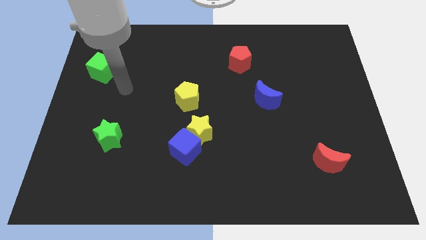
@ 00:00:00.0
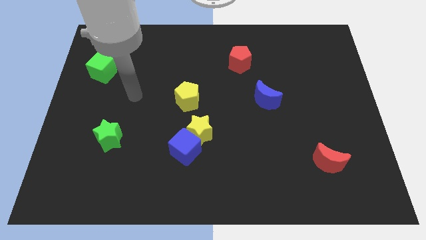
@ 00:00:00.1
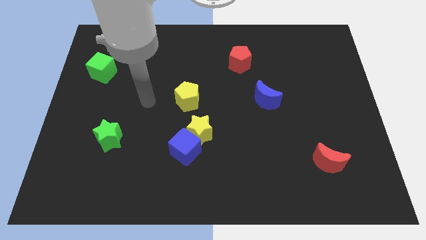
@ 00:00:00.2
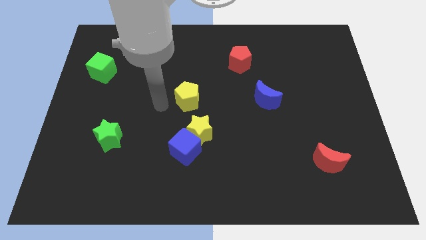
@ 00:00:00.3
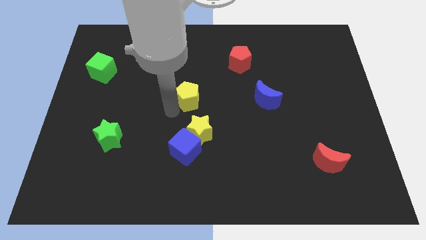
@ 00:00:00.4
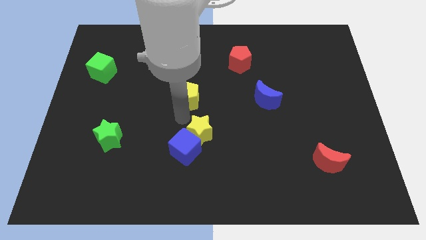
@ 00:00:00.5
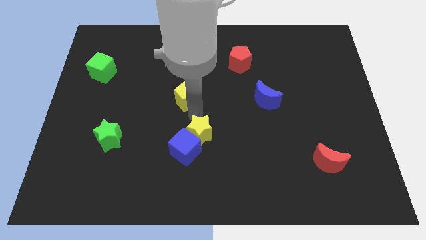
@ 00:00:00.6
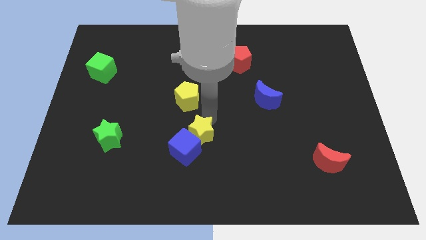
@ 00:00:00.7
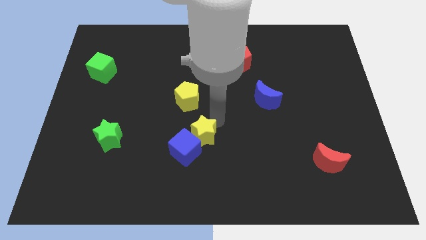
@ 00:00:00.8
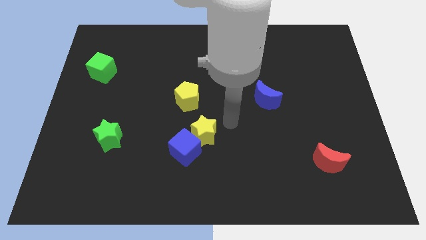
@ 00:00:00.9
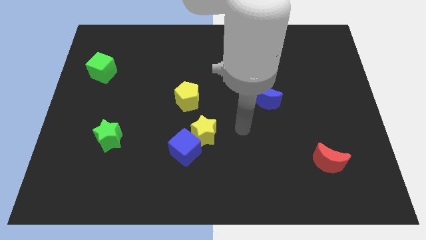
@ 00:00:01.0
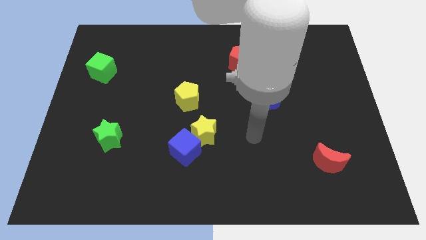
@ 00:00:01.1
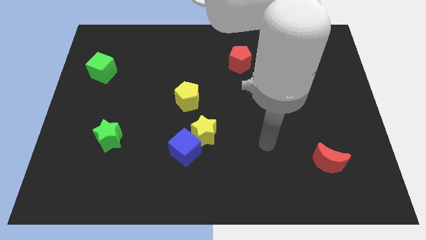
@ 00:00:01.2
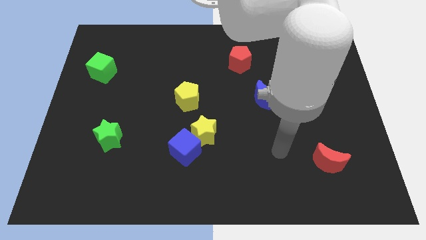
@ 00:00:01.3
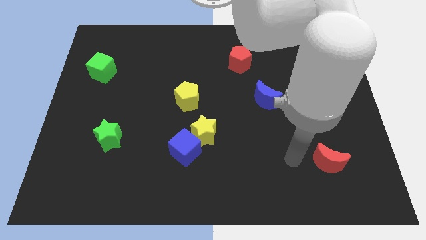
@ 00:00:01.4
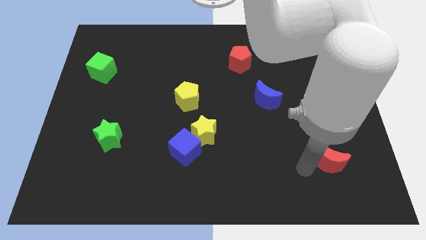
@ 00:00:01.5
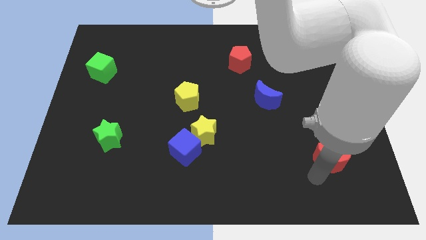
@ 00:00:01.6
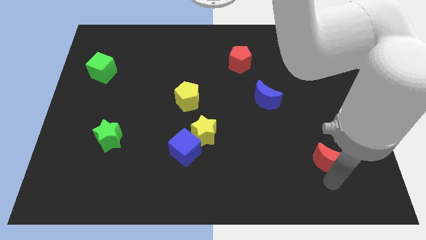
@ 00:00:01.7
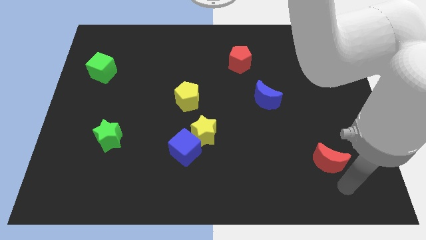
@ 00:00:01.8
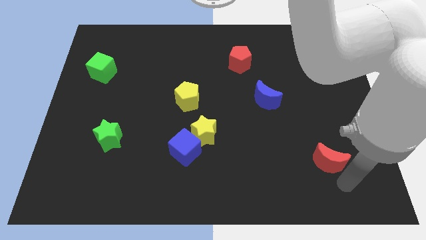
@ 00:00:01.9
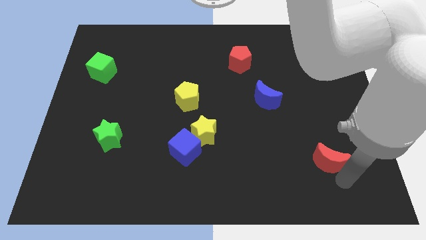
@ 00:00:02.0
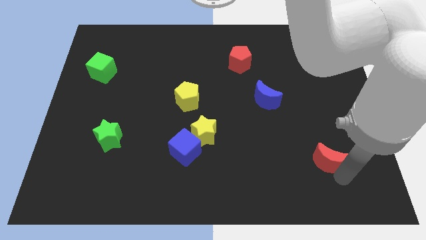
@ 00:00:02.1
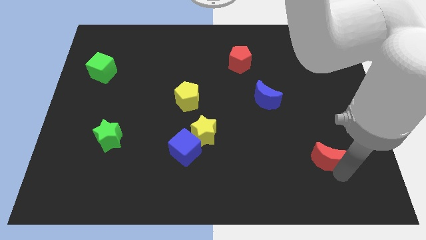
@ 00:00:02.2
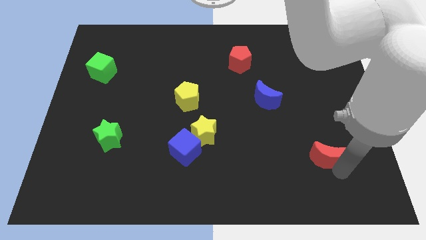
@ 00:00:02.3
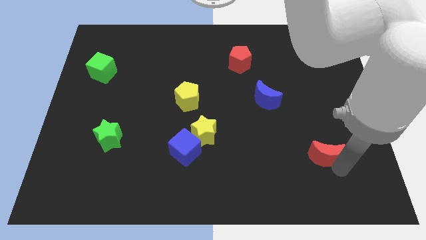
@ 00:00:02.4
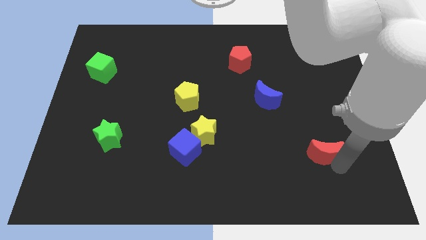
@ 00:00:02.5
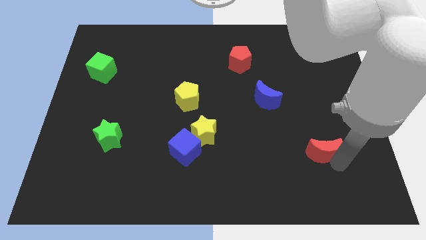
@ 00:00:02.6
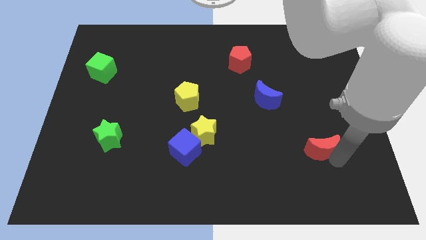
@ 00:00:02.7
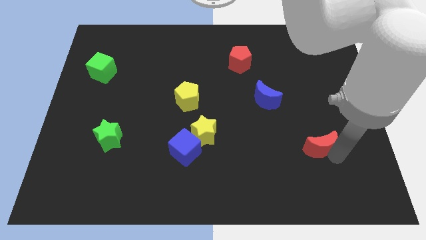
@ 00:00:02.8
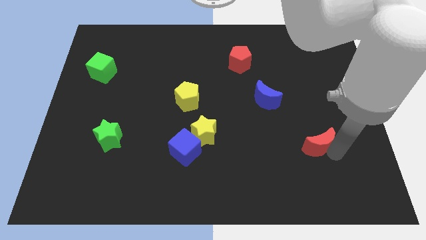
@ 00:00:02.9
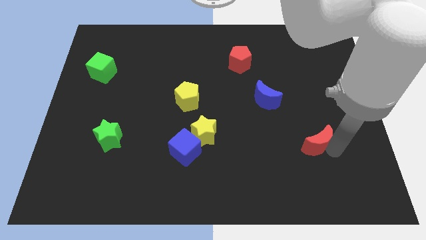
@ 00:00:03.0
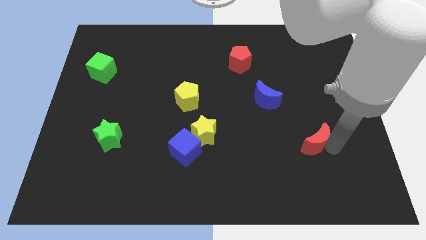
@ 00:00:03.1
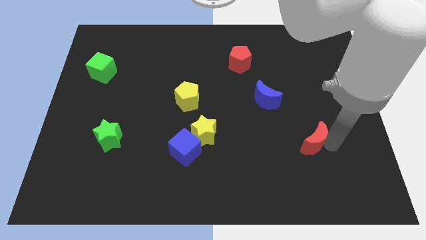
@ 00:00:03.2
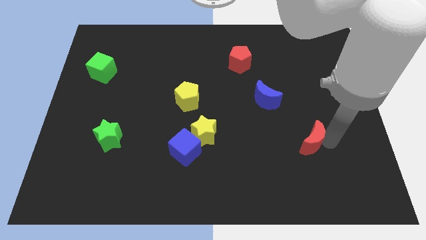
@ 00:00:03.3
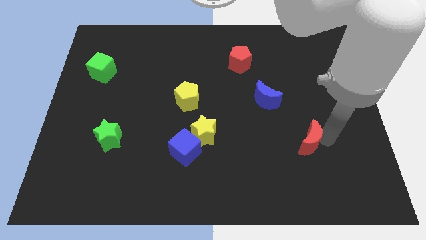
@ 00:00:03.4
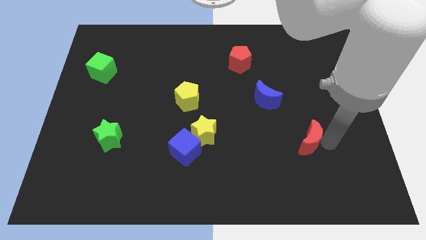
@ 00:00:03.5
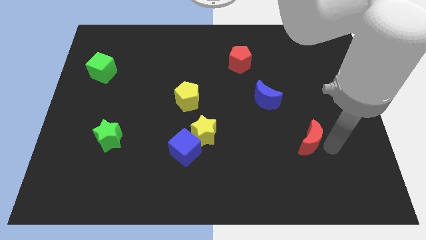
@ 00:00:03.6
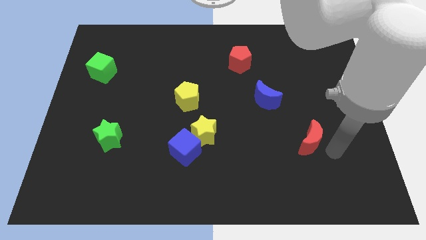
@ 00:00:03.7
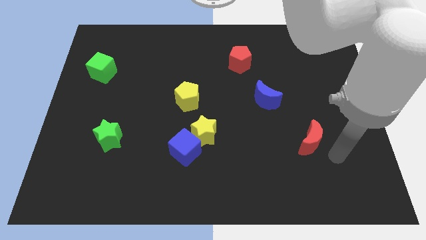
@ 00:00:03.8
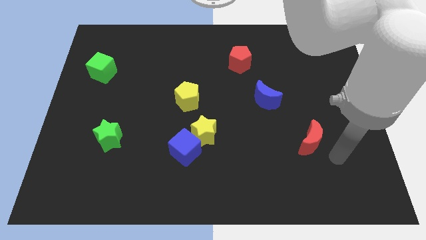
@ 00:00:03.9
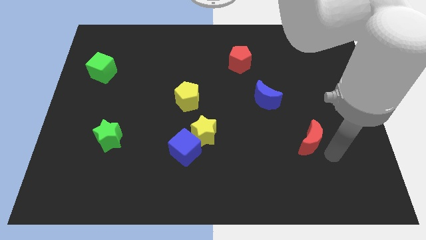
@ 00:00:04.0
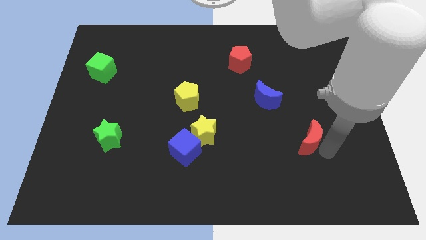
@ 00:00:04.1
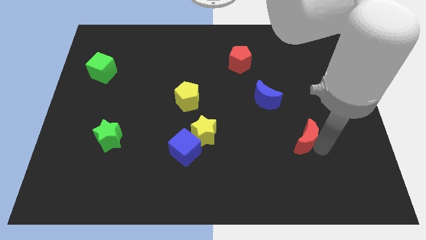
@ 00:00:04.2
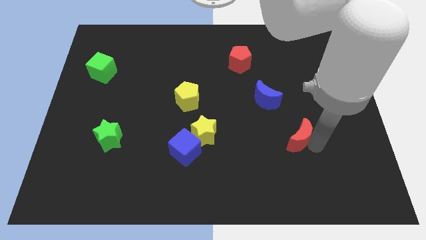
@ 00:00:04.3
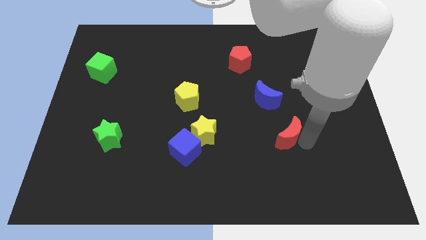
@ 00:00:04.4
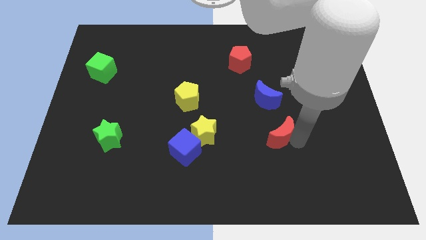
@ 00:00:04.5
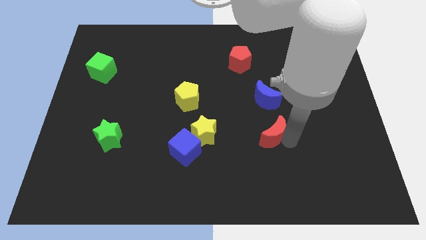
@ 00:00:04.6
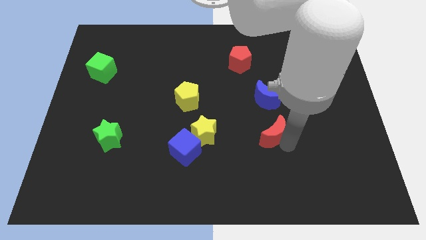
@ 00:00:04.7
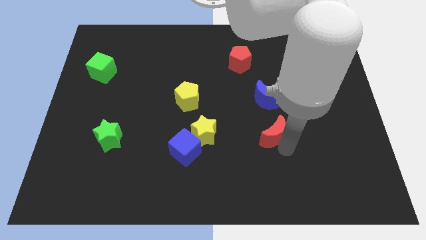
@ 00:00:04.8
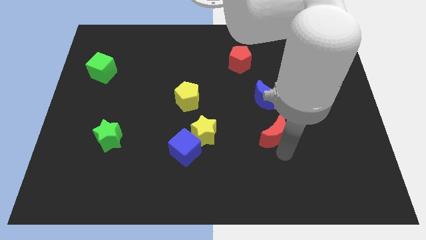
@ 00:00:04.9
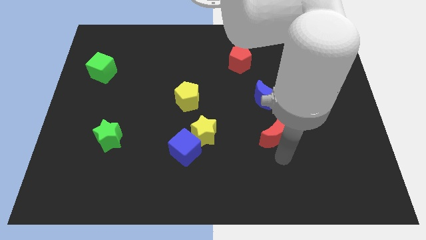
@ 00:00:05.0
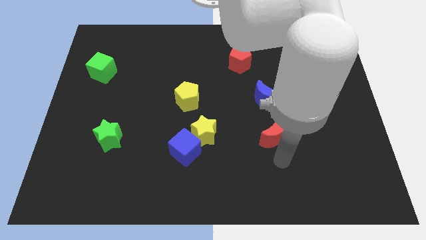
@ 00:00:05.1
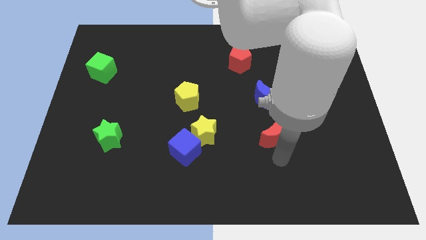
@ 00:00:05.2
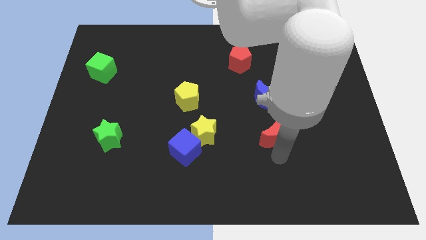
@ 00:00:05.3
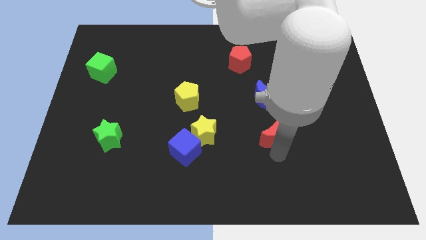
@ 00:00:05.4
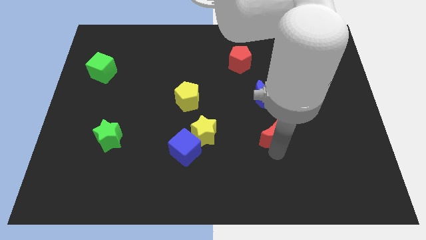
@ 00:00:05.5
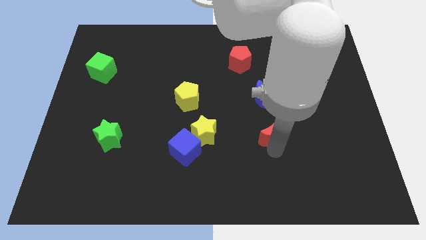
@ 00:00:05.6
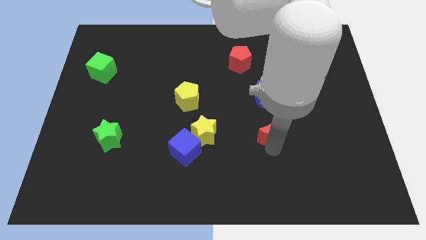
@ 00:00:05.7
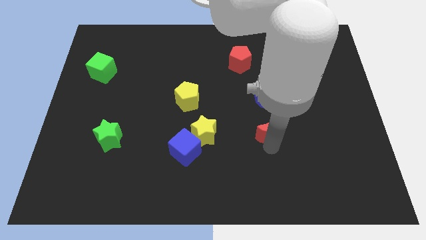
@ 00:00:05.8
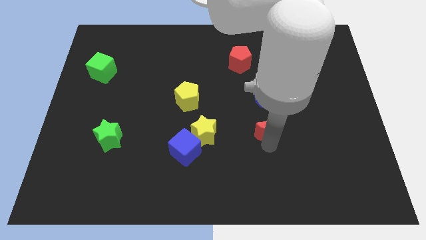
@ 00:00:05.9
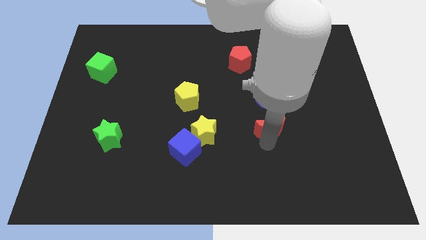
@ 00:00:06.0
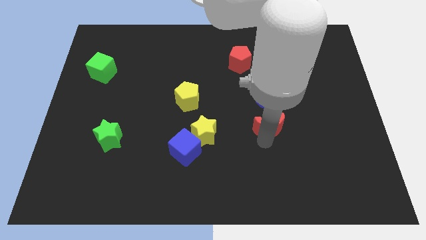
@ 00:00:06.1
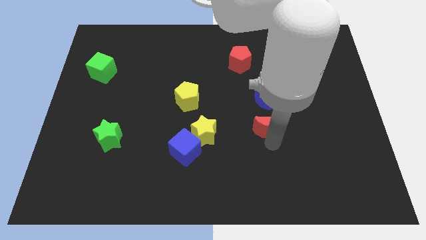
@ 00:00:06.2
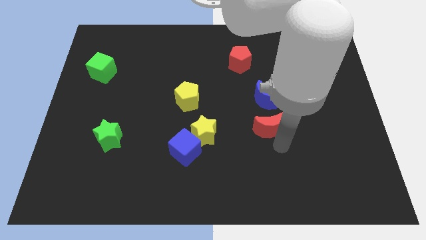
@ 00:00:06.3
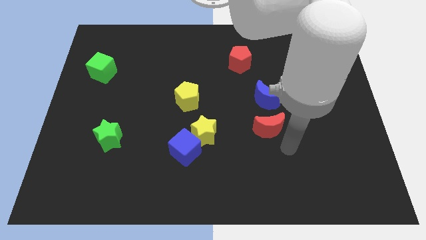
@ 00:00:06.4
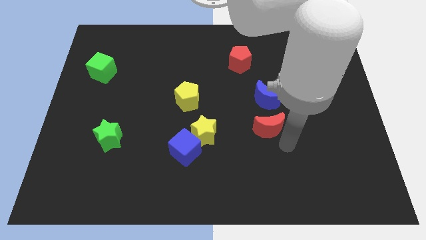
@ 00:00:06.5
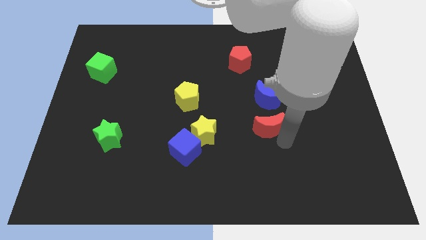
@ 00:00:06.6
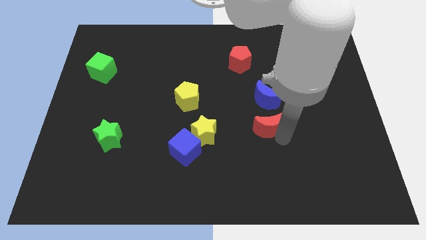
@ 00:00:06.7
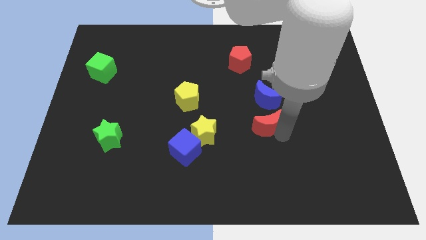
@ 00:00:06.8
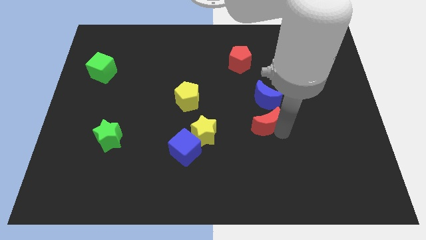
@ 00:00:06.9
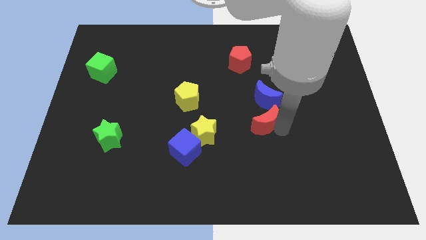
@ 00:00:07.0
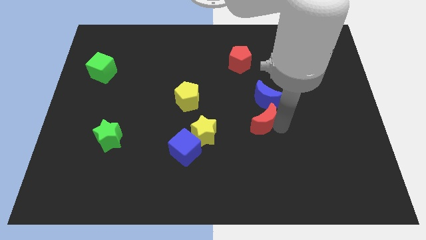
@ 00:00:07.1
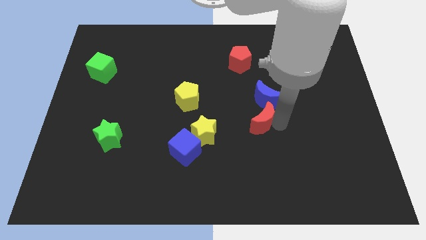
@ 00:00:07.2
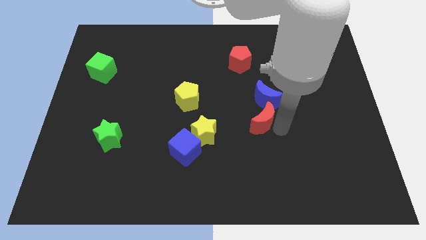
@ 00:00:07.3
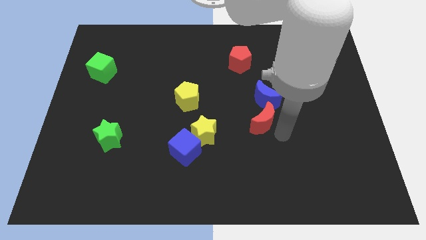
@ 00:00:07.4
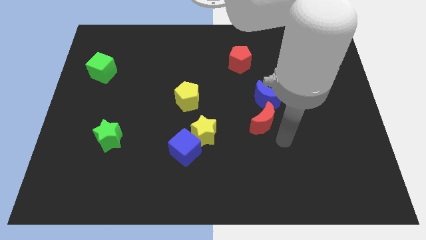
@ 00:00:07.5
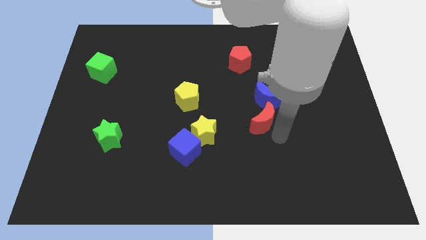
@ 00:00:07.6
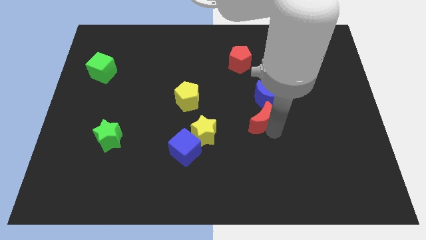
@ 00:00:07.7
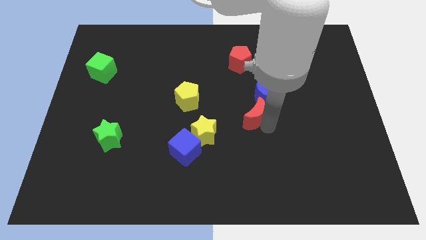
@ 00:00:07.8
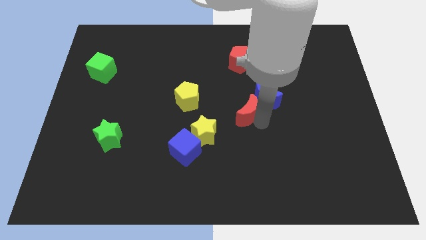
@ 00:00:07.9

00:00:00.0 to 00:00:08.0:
put the red moon to the left side of the blue moon
